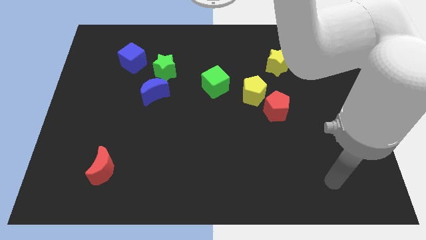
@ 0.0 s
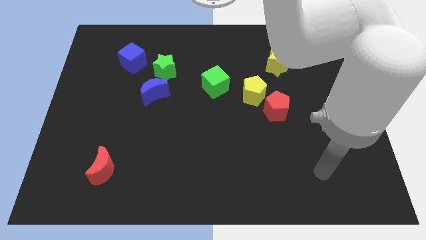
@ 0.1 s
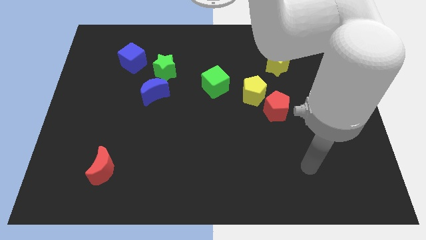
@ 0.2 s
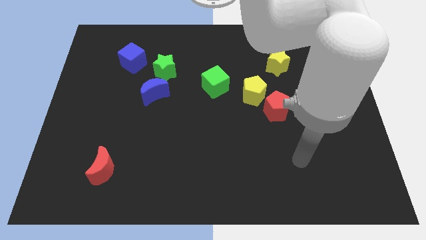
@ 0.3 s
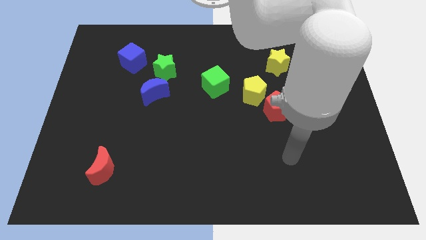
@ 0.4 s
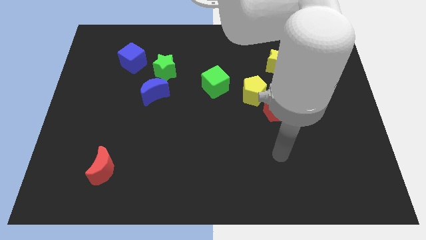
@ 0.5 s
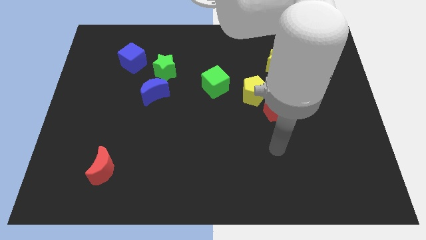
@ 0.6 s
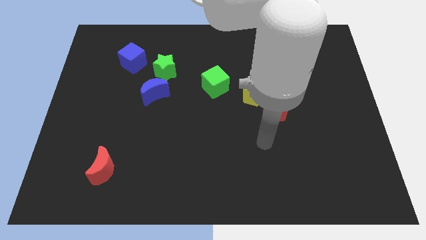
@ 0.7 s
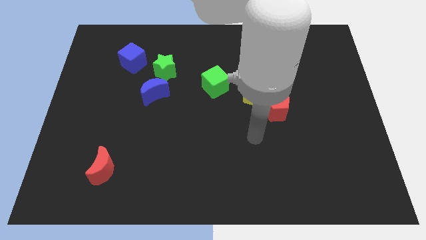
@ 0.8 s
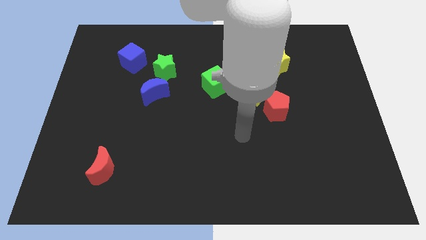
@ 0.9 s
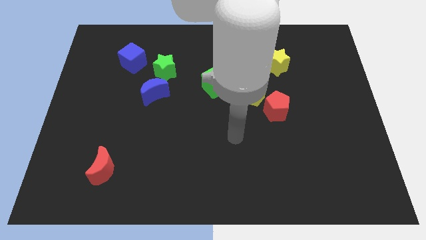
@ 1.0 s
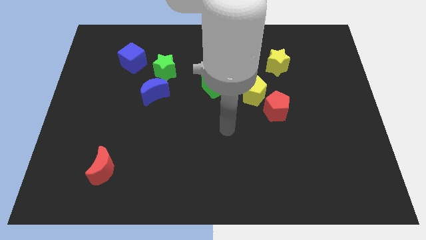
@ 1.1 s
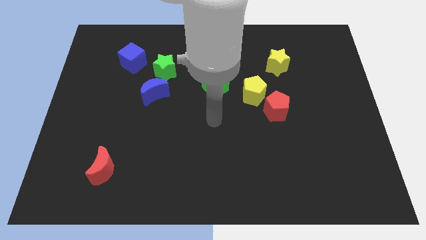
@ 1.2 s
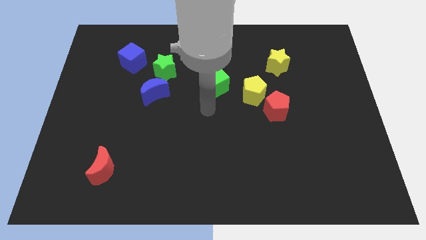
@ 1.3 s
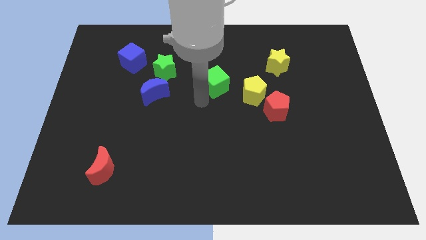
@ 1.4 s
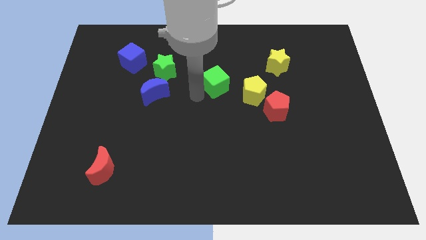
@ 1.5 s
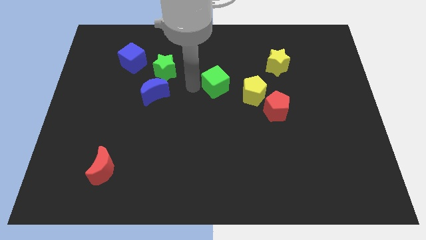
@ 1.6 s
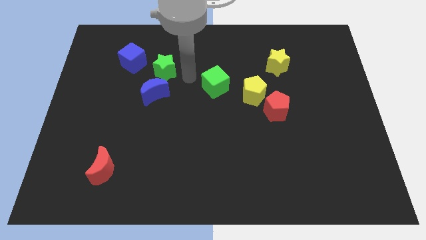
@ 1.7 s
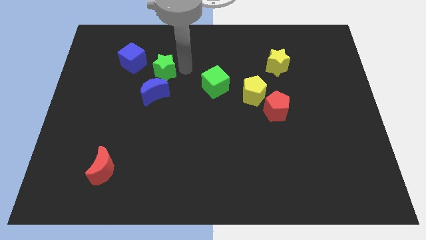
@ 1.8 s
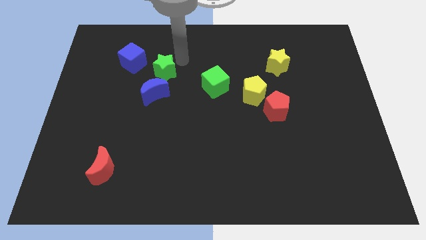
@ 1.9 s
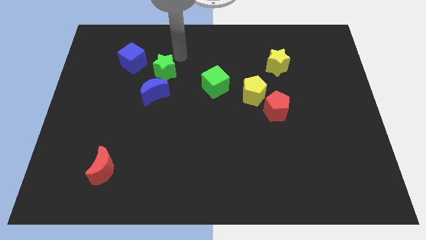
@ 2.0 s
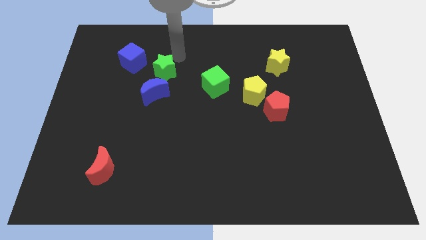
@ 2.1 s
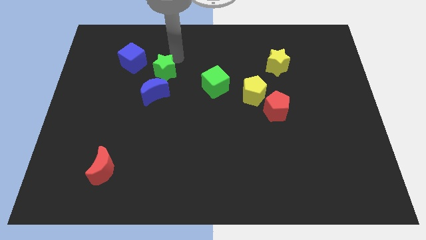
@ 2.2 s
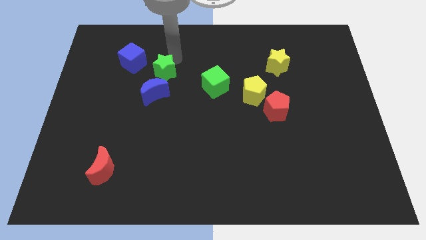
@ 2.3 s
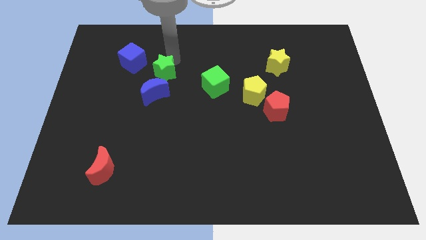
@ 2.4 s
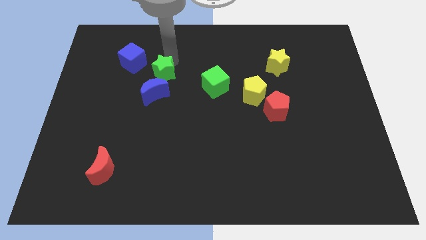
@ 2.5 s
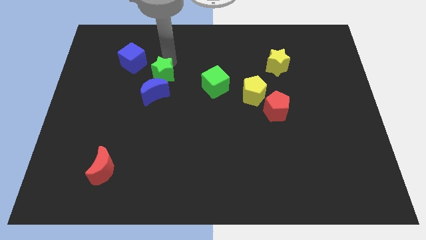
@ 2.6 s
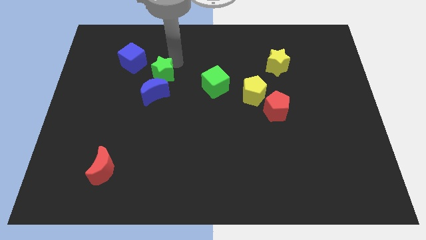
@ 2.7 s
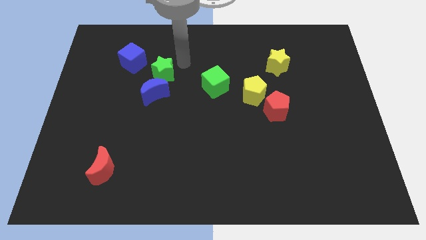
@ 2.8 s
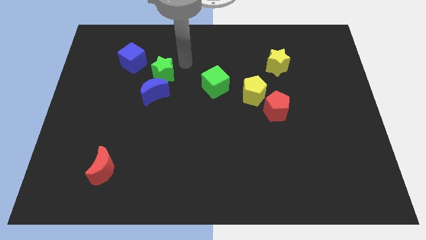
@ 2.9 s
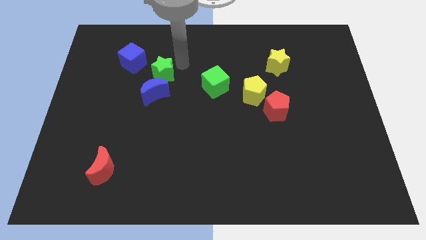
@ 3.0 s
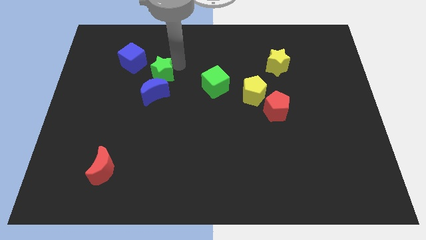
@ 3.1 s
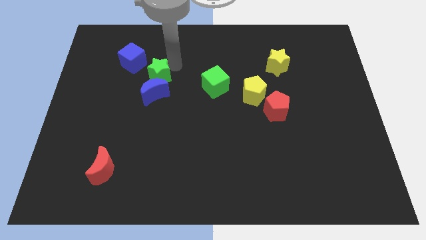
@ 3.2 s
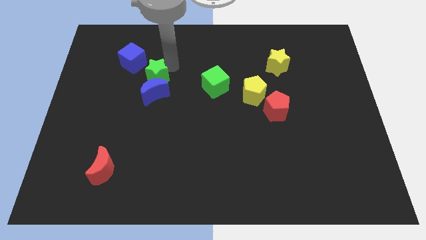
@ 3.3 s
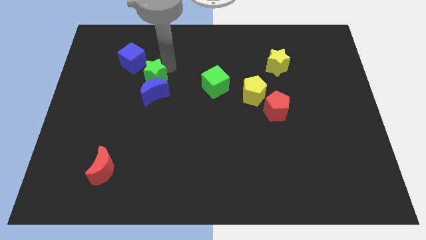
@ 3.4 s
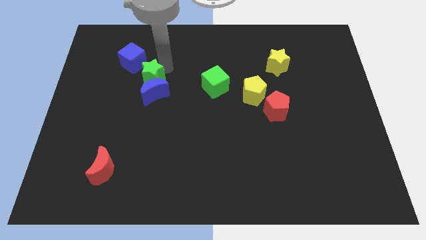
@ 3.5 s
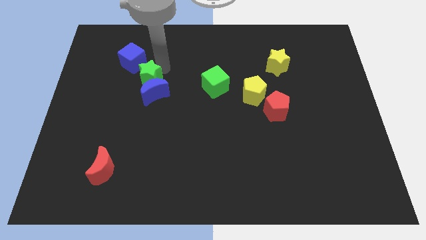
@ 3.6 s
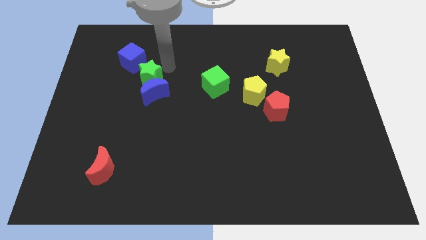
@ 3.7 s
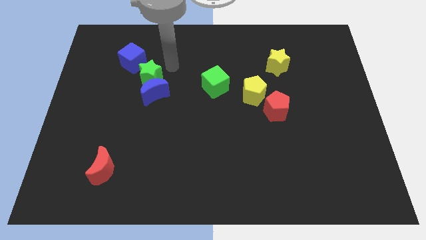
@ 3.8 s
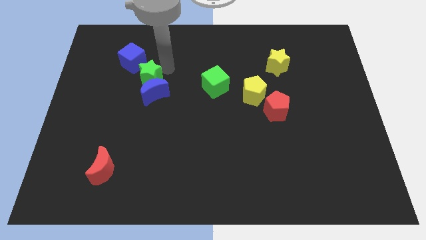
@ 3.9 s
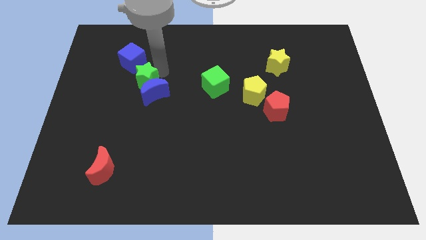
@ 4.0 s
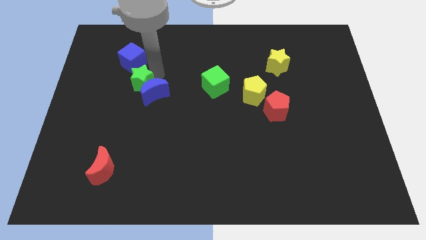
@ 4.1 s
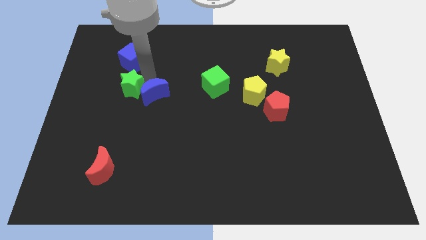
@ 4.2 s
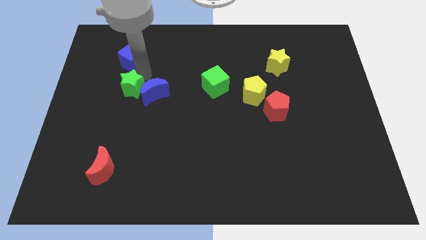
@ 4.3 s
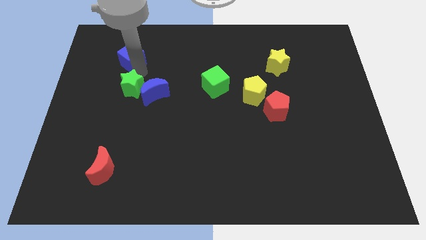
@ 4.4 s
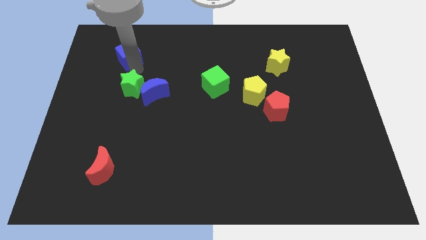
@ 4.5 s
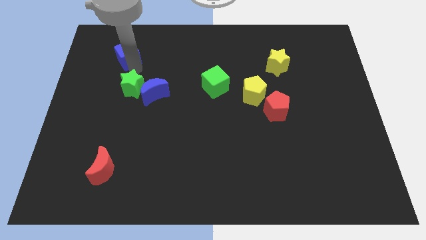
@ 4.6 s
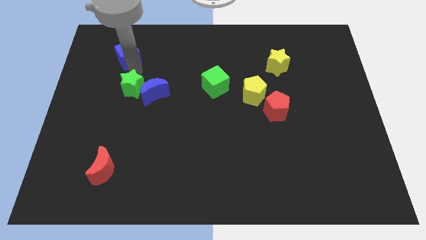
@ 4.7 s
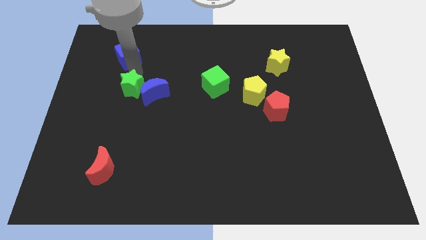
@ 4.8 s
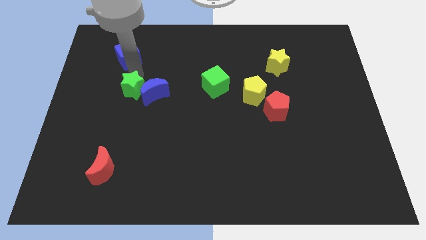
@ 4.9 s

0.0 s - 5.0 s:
move the green star diagonally down and to the left of the blue moon

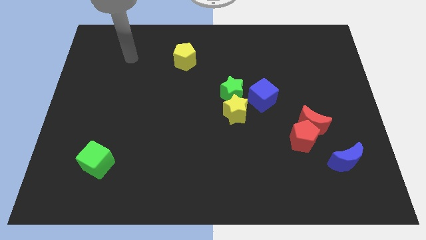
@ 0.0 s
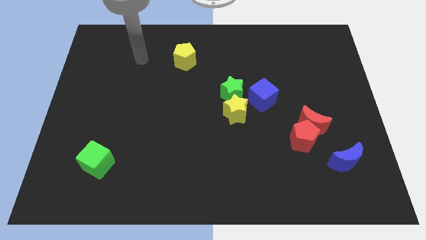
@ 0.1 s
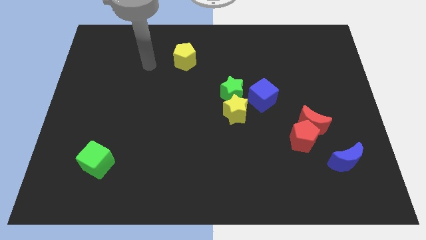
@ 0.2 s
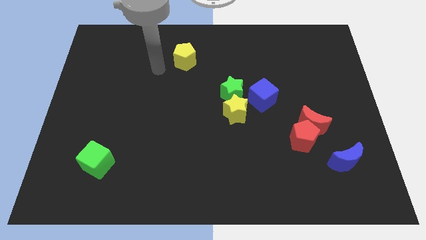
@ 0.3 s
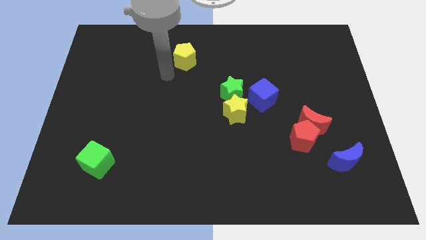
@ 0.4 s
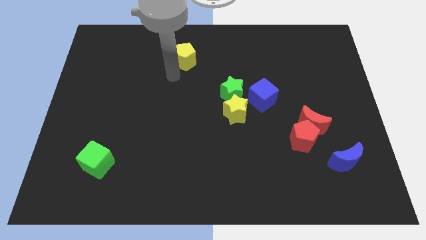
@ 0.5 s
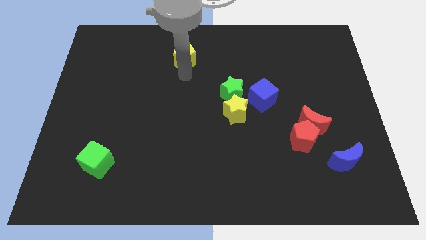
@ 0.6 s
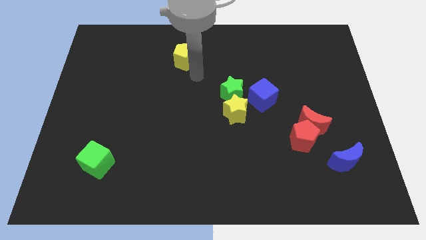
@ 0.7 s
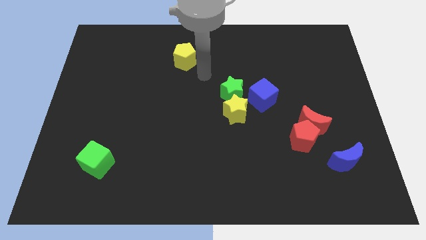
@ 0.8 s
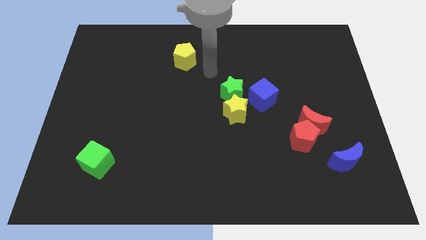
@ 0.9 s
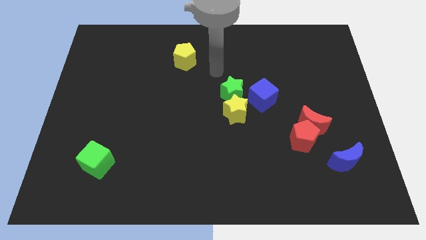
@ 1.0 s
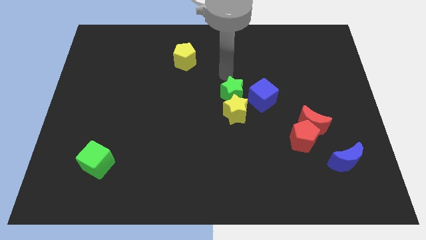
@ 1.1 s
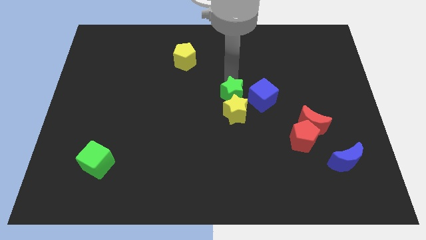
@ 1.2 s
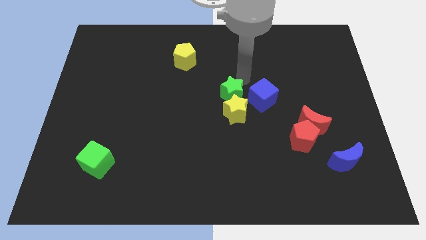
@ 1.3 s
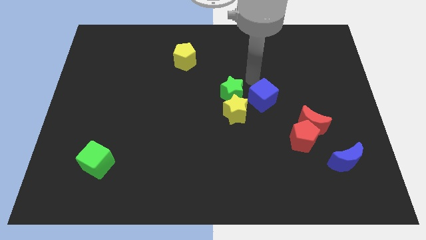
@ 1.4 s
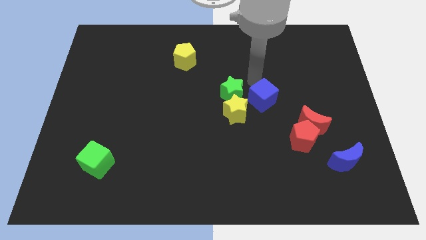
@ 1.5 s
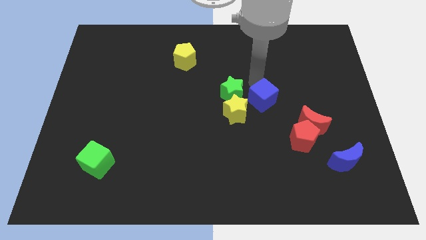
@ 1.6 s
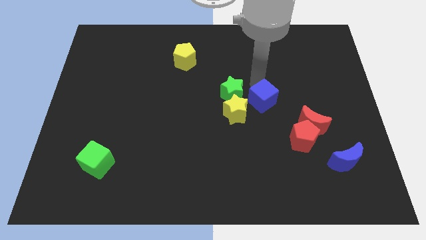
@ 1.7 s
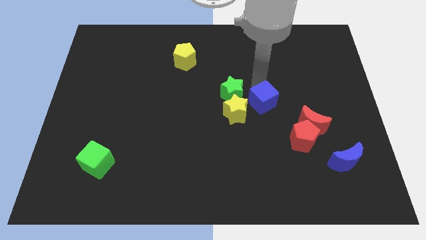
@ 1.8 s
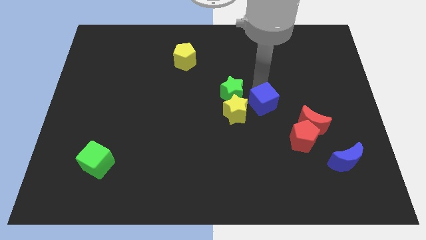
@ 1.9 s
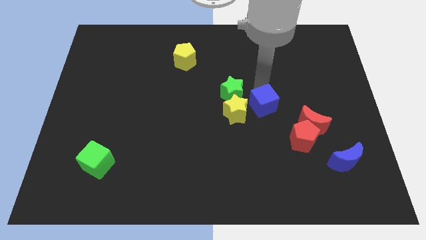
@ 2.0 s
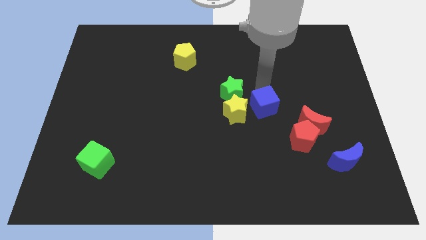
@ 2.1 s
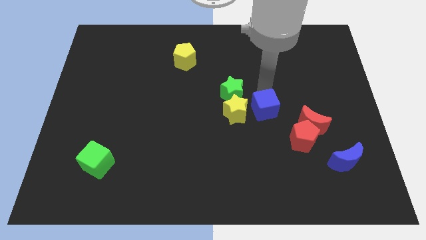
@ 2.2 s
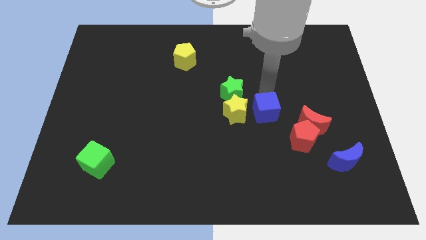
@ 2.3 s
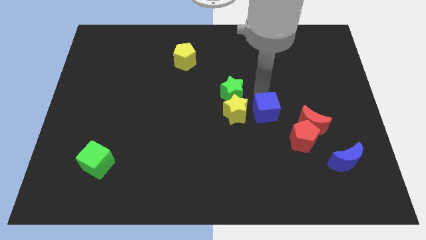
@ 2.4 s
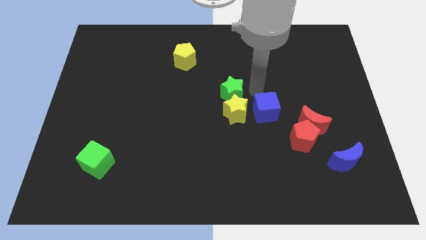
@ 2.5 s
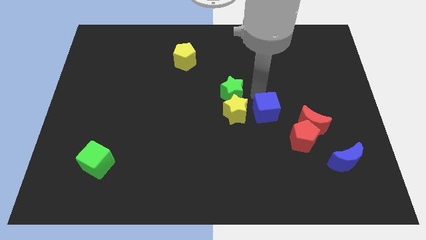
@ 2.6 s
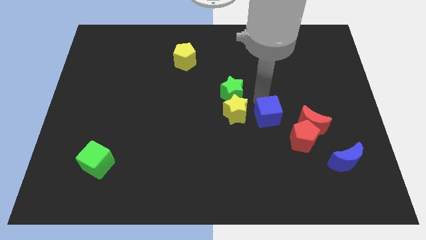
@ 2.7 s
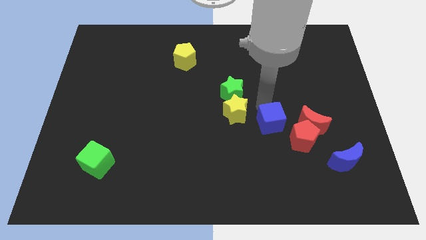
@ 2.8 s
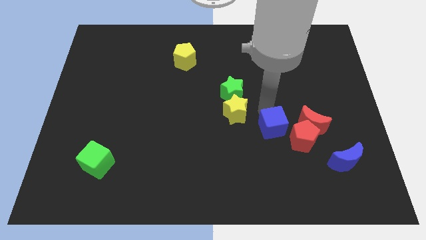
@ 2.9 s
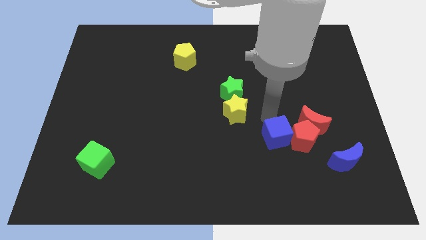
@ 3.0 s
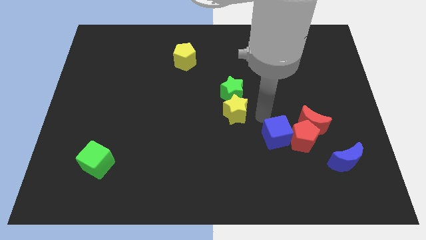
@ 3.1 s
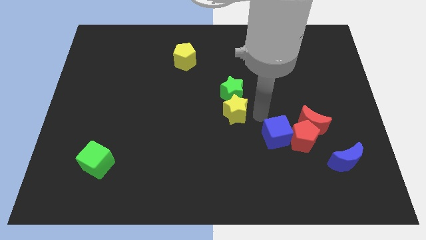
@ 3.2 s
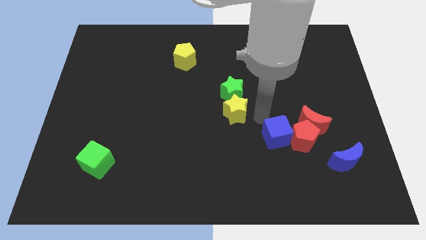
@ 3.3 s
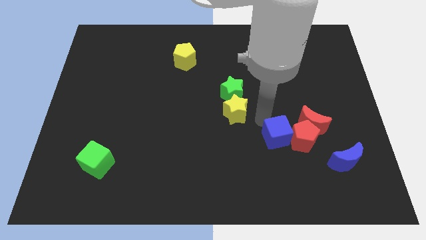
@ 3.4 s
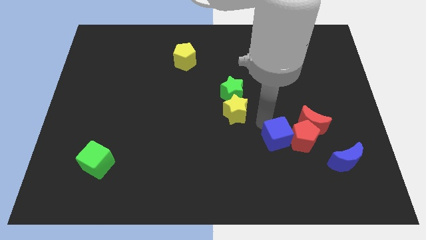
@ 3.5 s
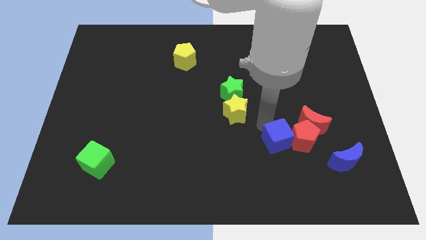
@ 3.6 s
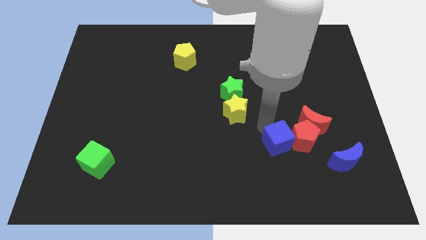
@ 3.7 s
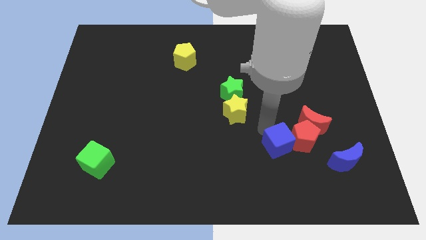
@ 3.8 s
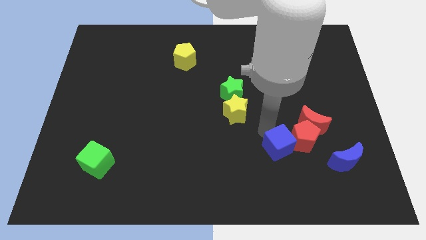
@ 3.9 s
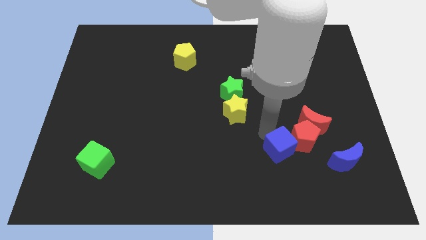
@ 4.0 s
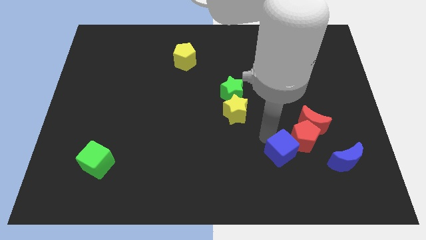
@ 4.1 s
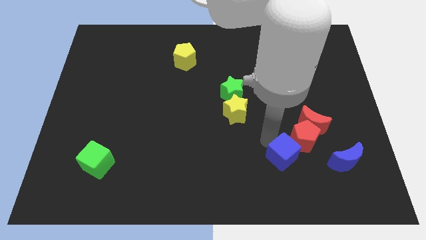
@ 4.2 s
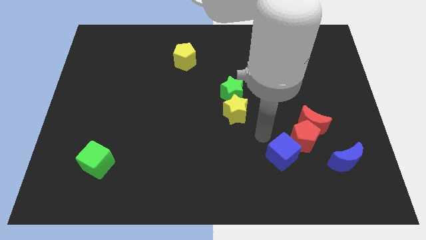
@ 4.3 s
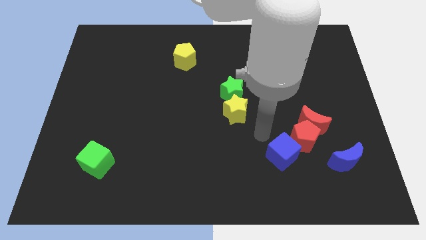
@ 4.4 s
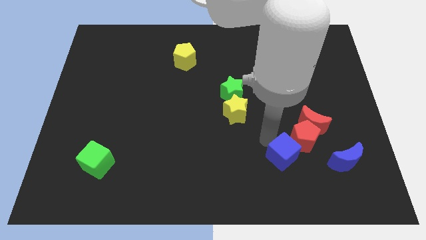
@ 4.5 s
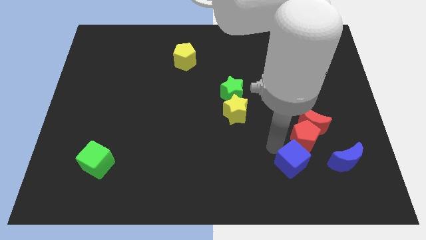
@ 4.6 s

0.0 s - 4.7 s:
put the blue cube to the bottom of the red pentagon
